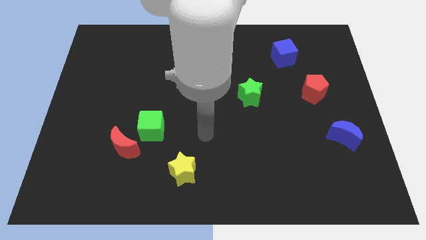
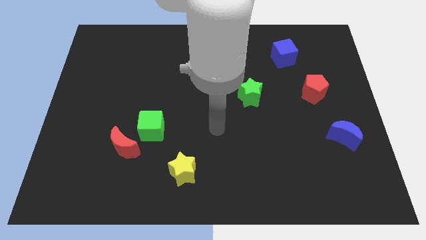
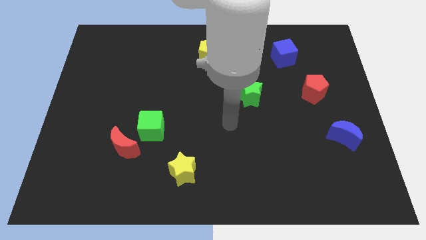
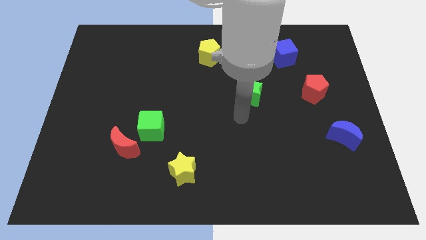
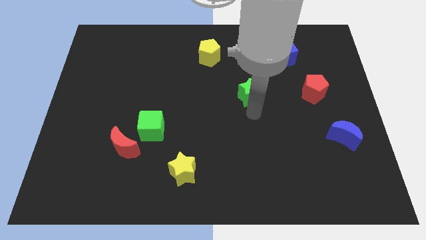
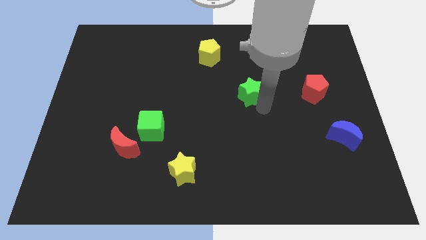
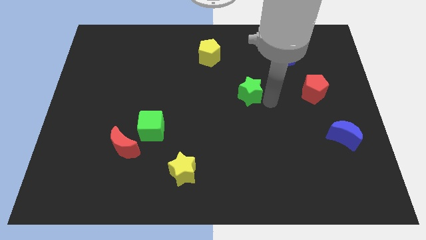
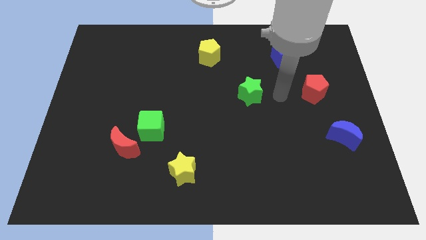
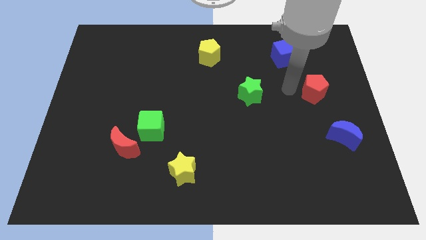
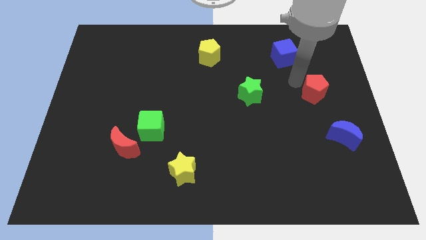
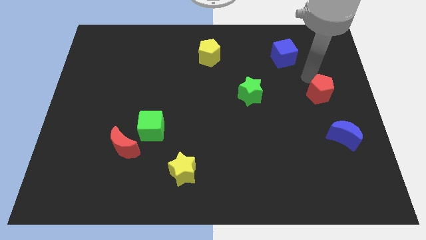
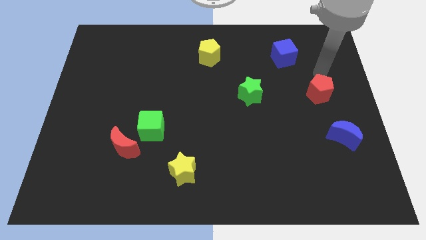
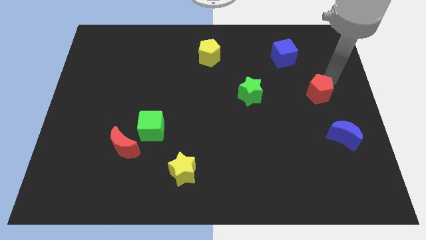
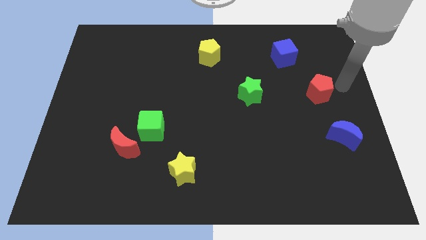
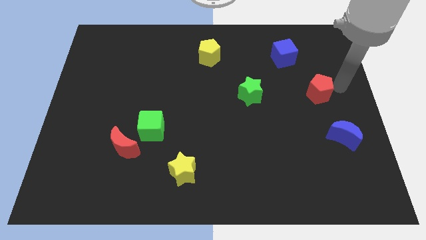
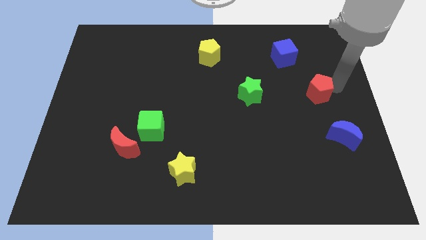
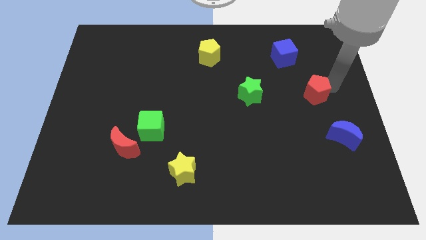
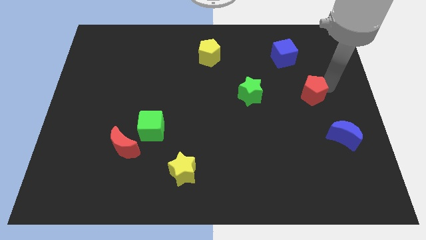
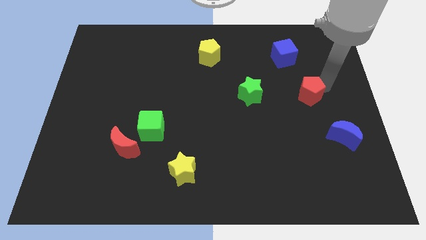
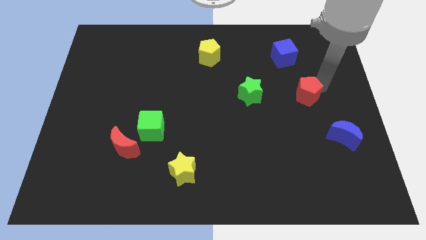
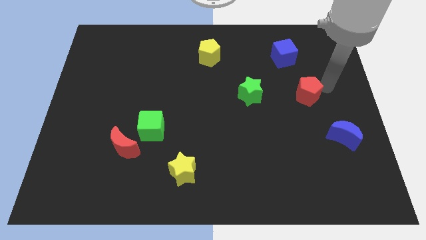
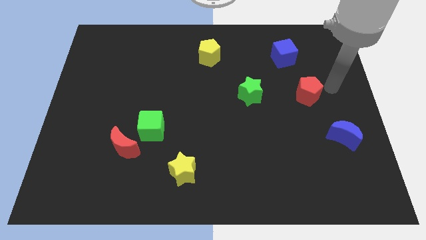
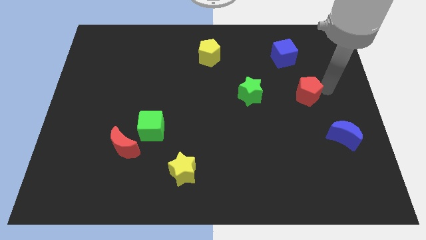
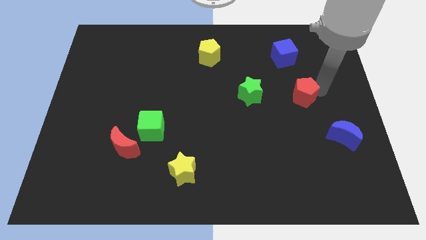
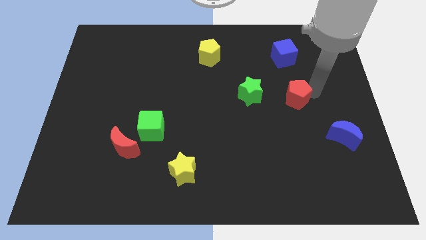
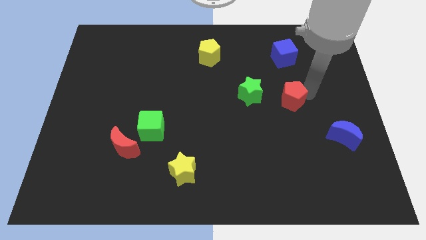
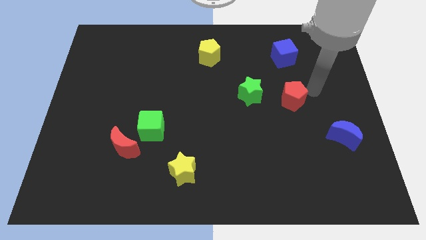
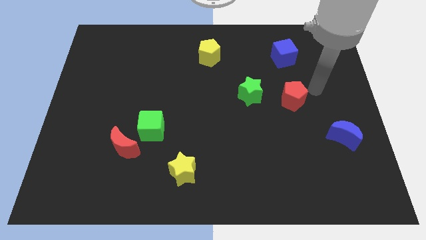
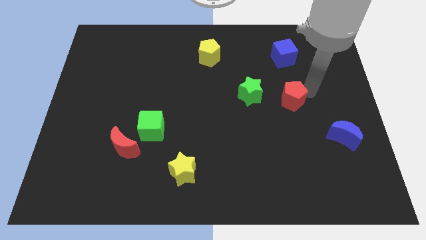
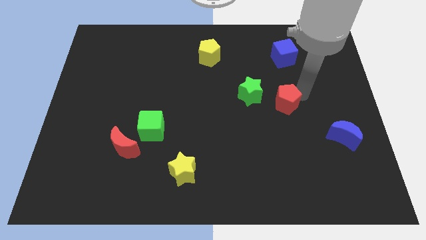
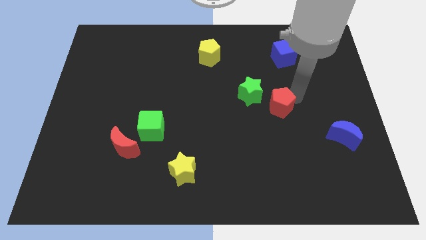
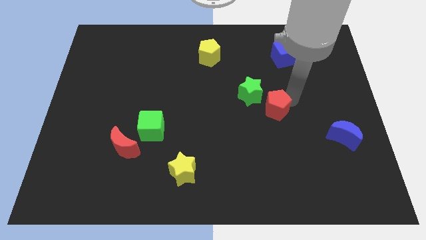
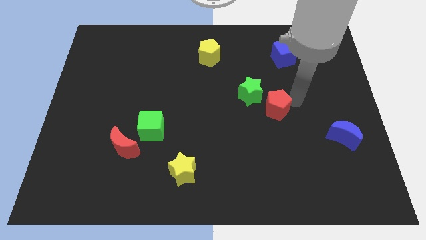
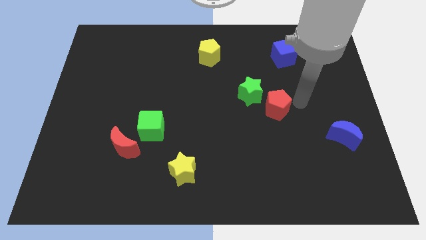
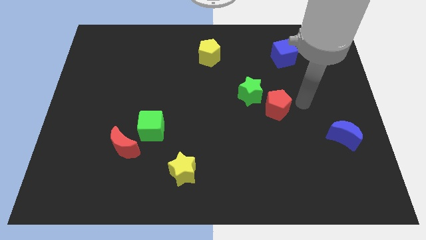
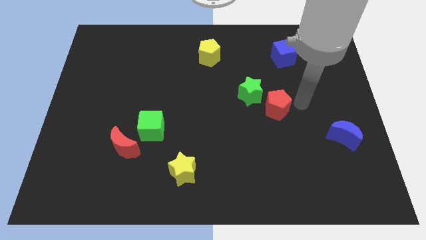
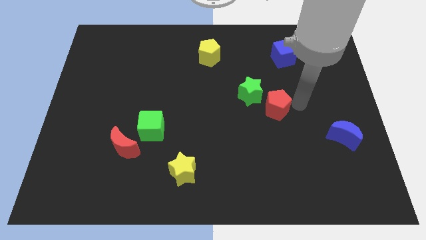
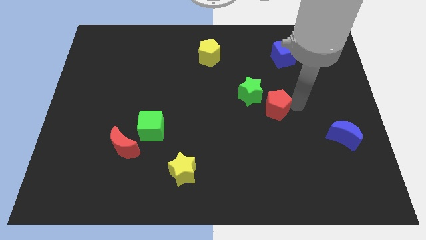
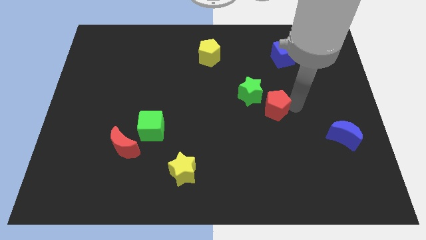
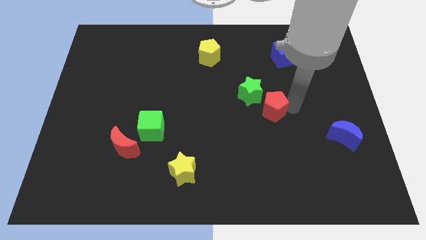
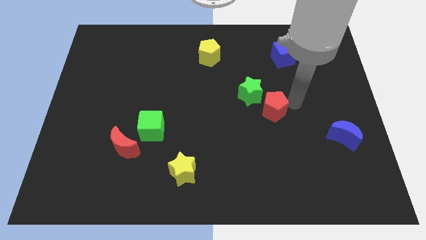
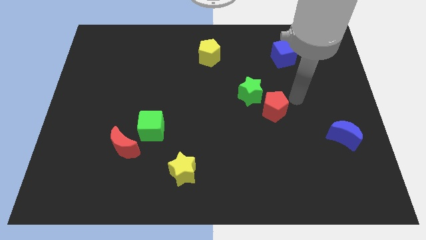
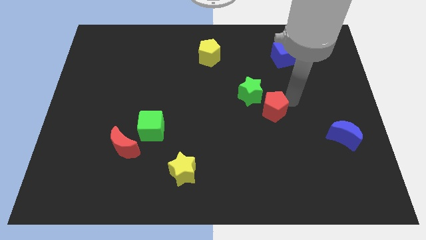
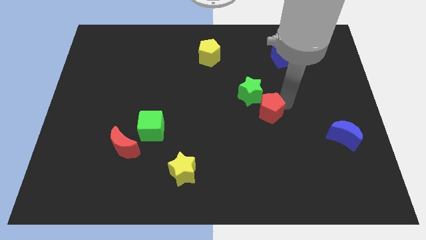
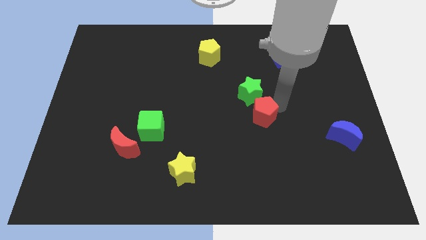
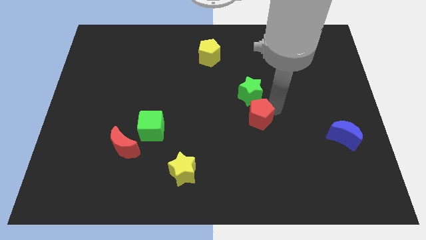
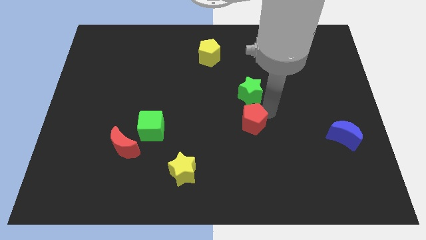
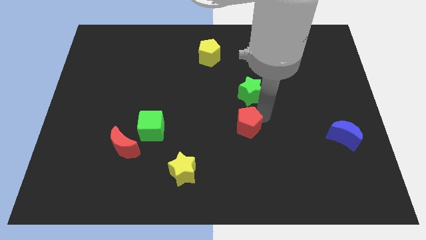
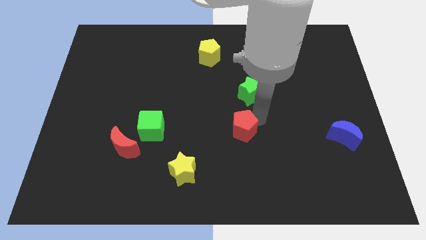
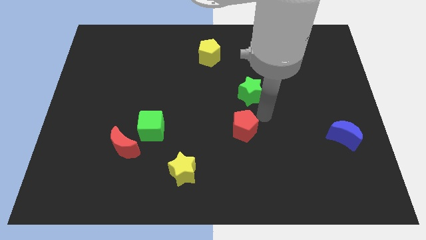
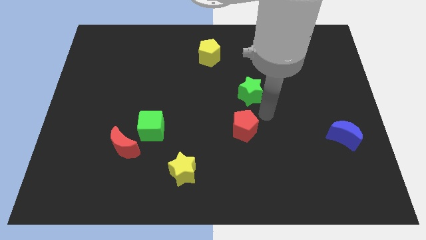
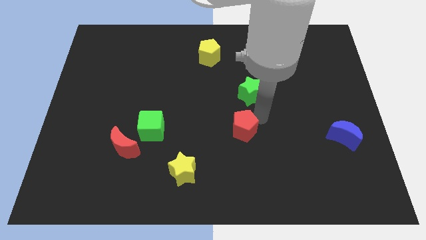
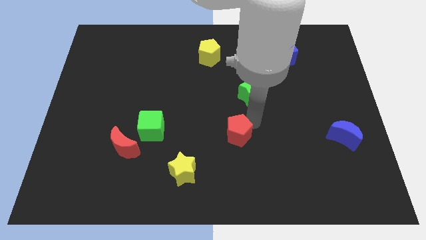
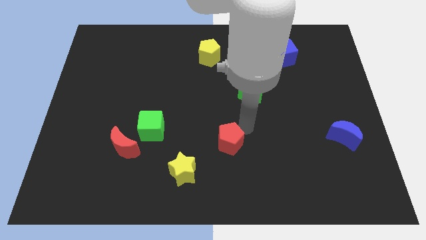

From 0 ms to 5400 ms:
put the red pentagon diagonally up and to the right of the yellow star

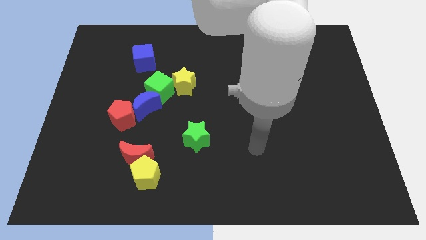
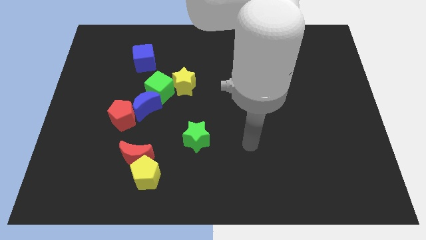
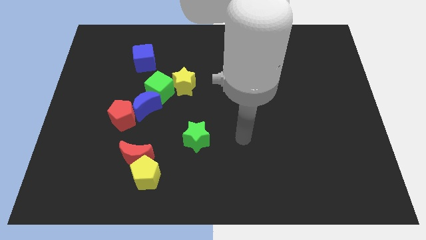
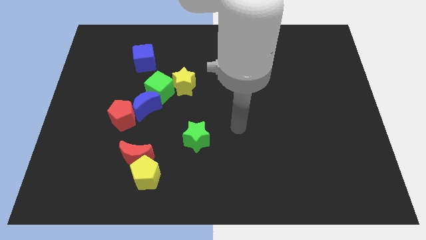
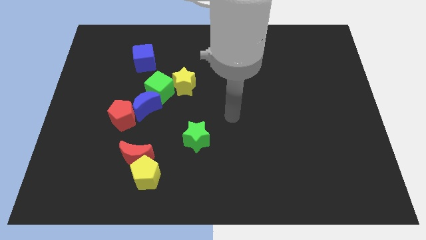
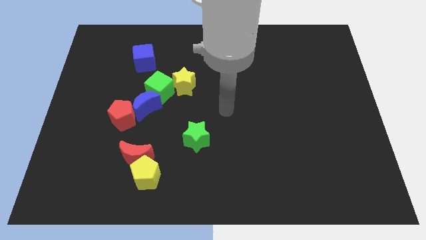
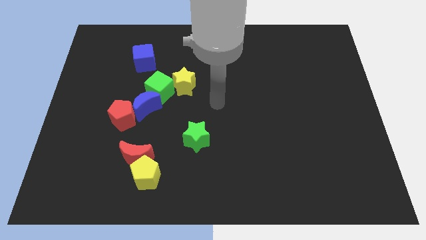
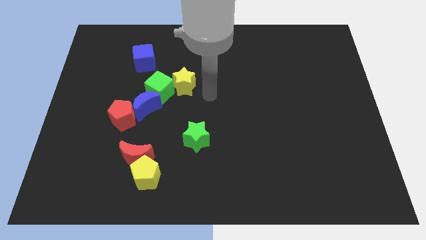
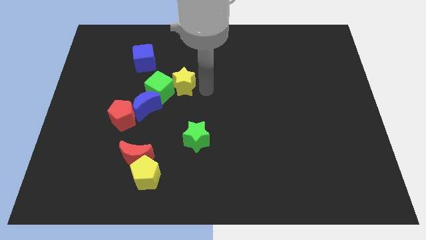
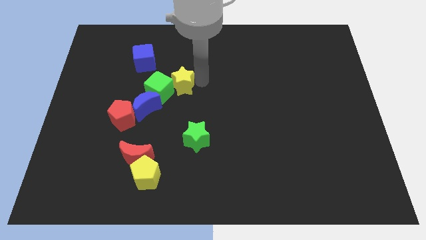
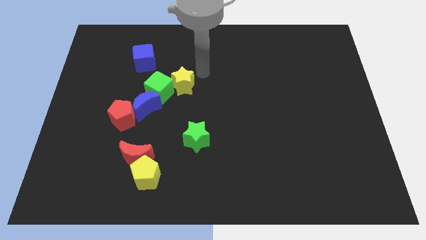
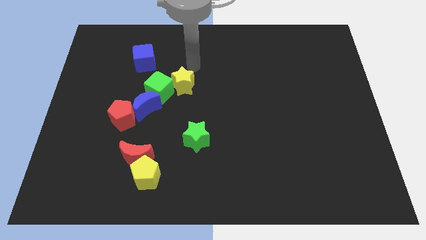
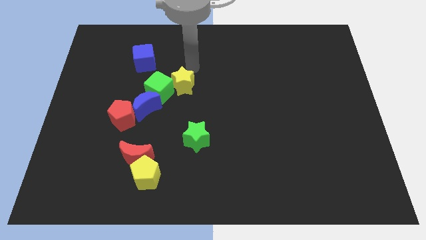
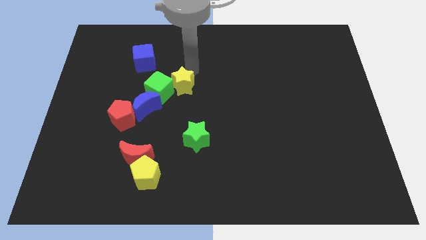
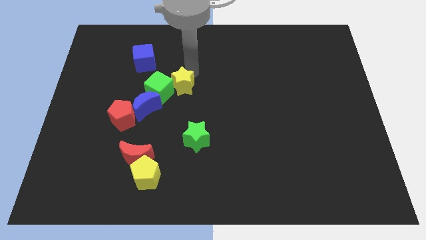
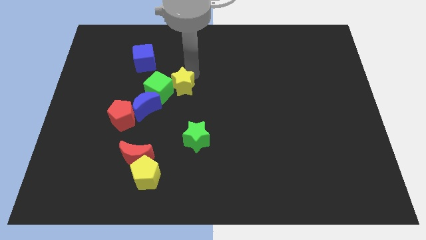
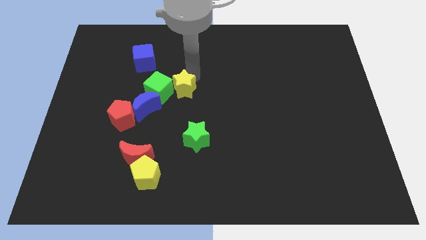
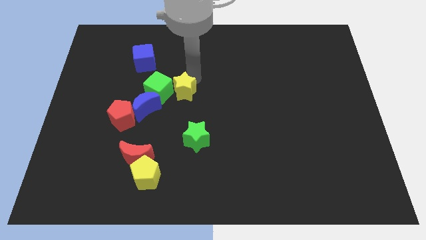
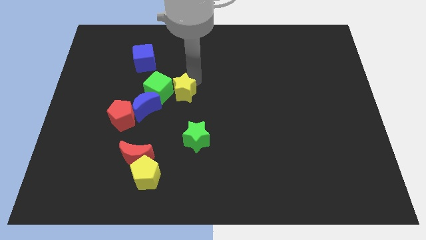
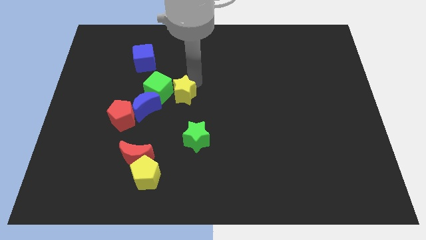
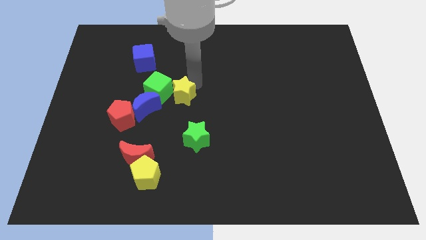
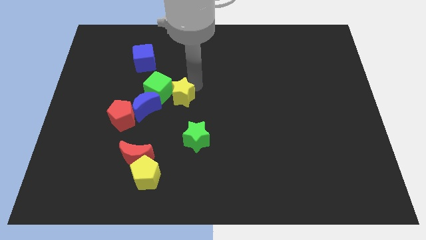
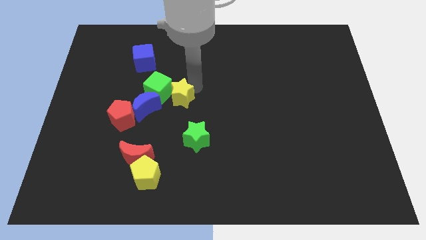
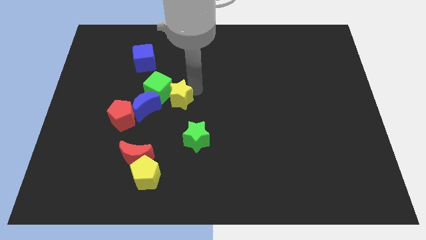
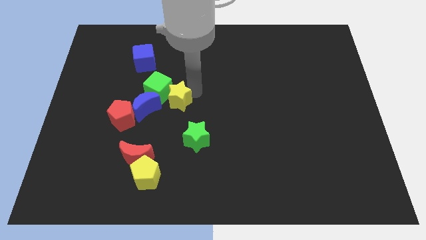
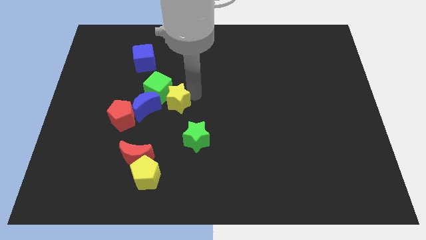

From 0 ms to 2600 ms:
slide the yellow star right of the red pentagon
